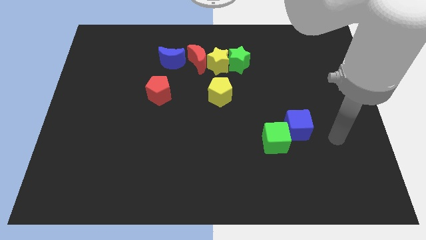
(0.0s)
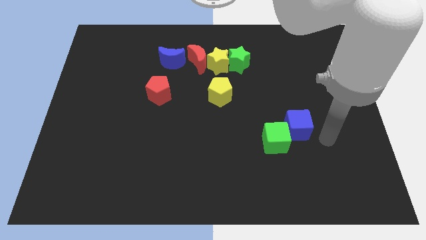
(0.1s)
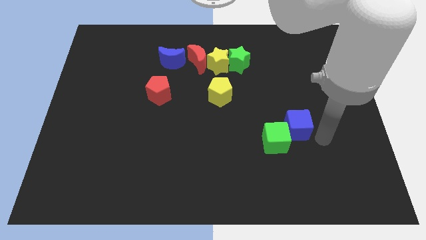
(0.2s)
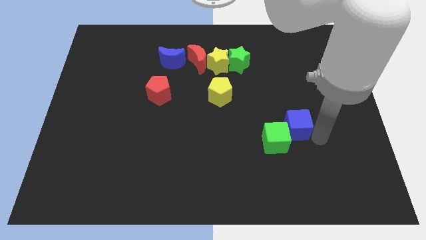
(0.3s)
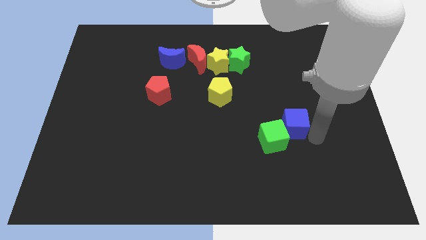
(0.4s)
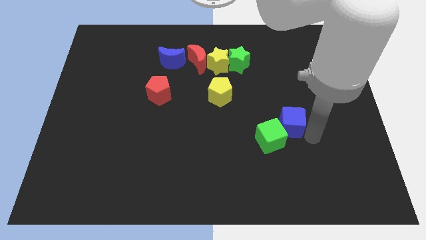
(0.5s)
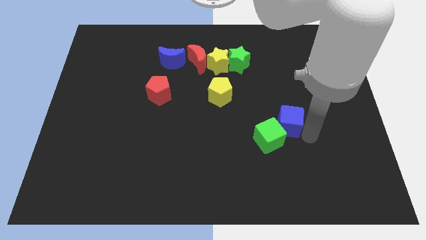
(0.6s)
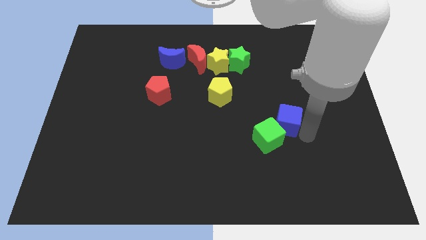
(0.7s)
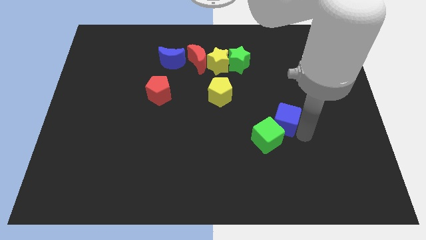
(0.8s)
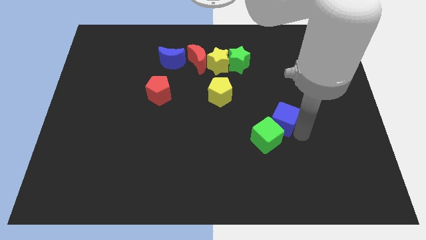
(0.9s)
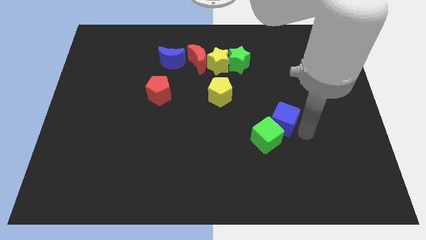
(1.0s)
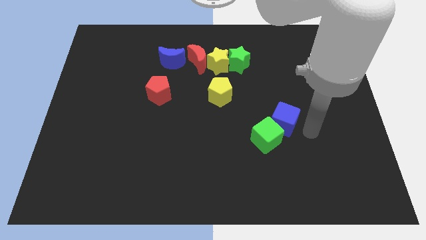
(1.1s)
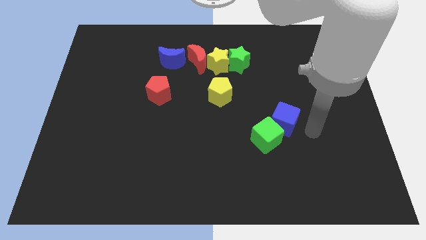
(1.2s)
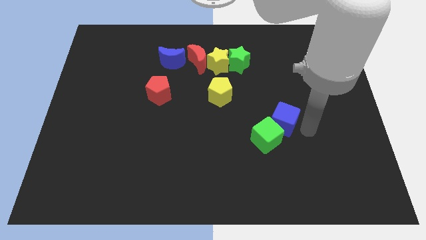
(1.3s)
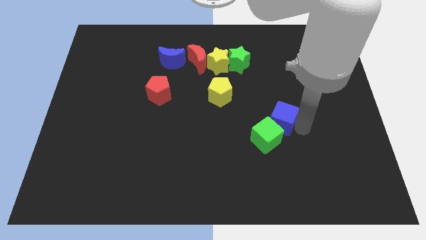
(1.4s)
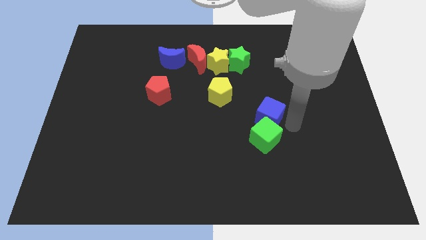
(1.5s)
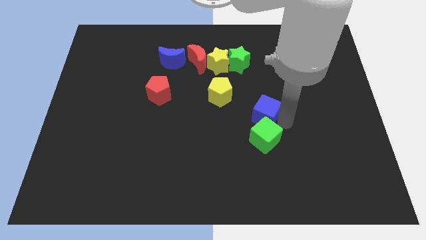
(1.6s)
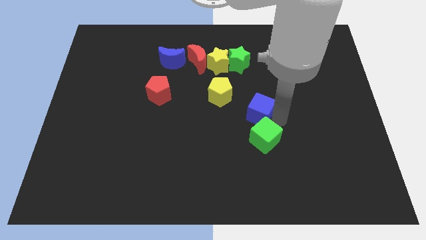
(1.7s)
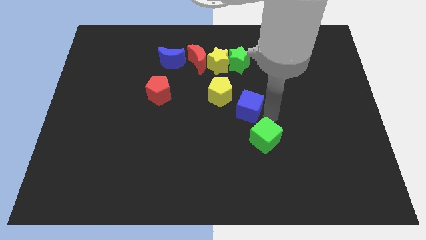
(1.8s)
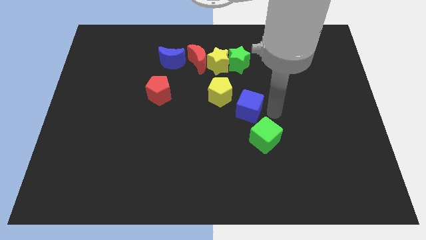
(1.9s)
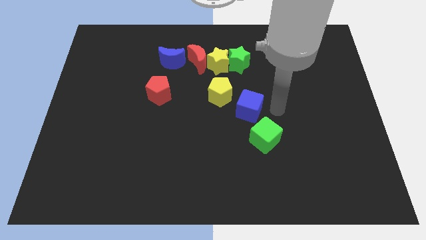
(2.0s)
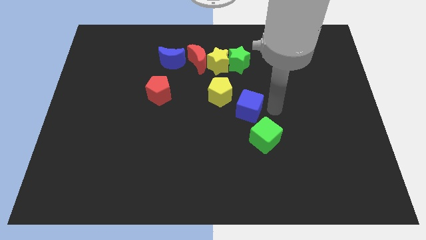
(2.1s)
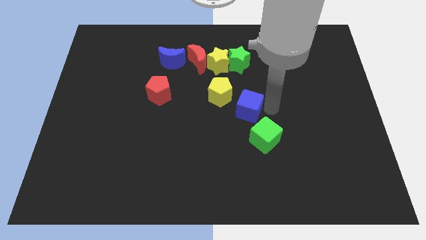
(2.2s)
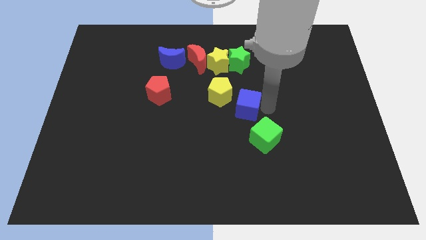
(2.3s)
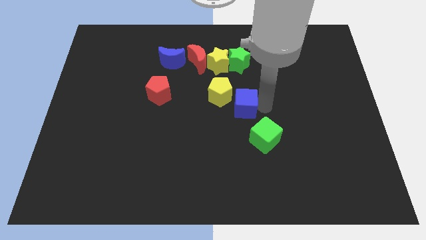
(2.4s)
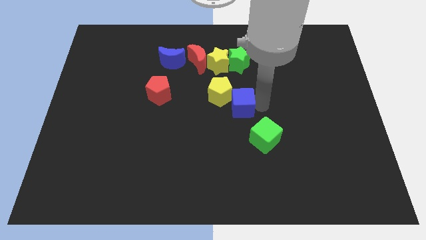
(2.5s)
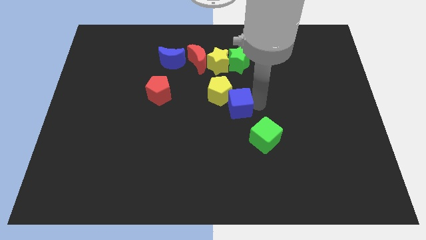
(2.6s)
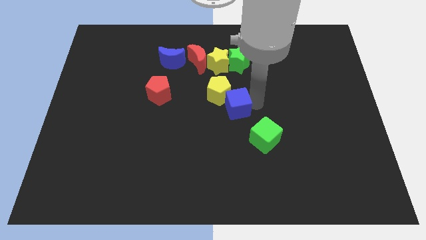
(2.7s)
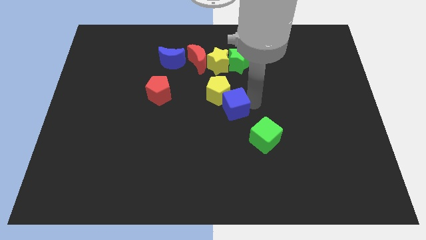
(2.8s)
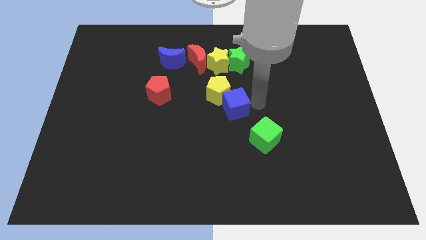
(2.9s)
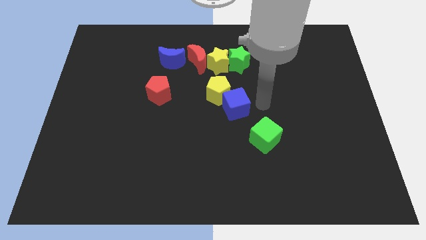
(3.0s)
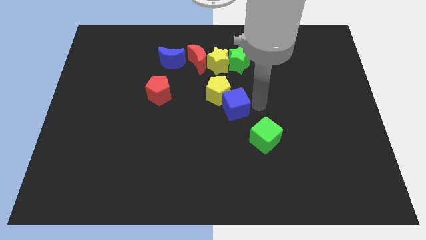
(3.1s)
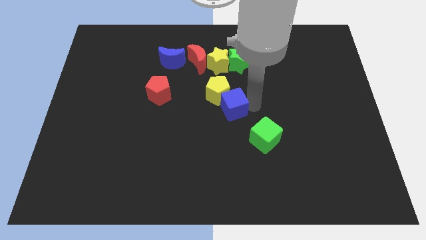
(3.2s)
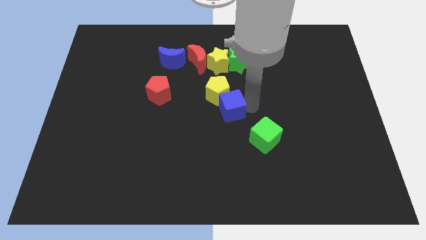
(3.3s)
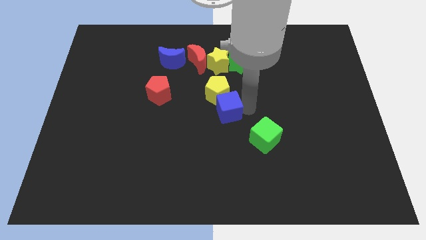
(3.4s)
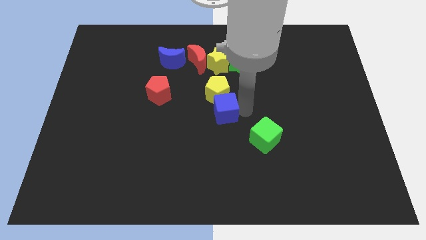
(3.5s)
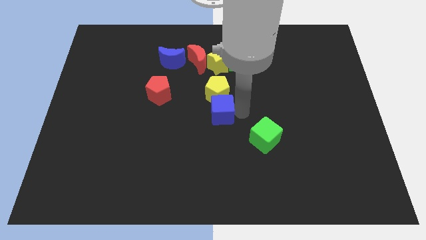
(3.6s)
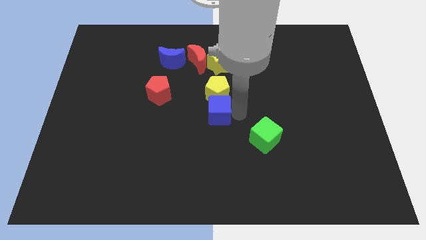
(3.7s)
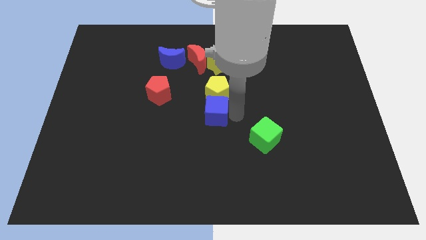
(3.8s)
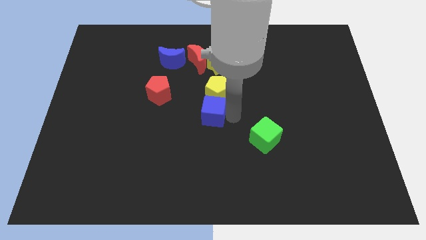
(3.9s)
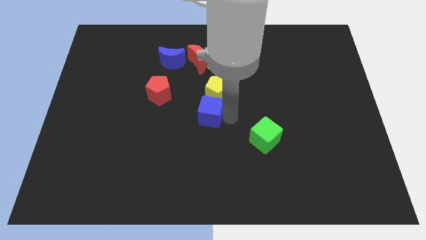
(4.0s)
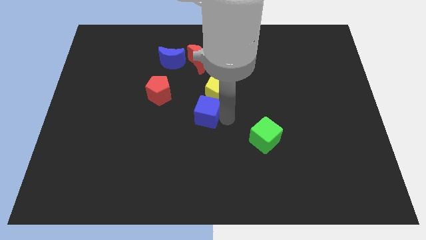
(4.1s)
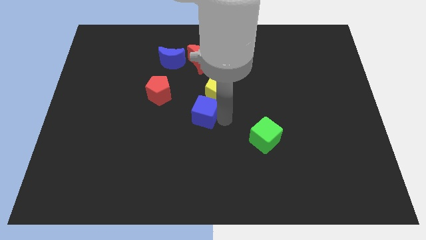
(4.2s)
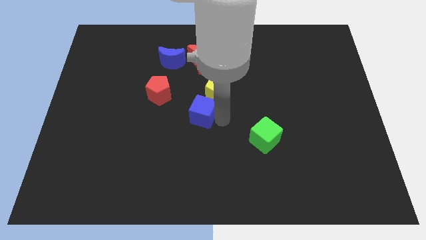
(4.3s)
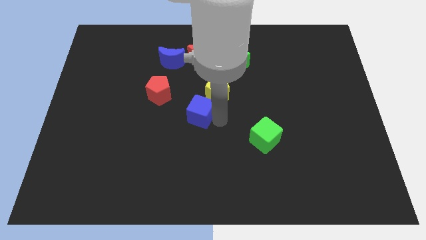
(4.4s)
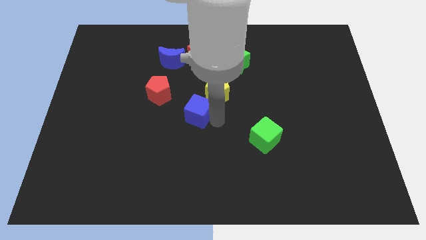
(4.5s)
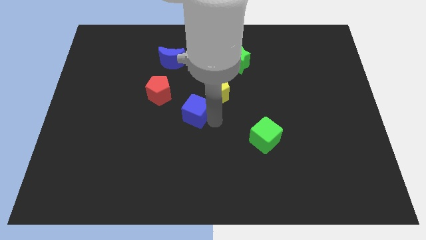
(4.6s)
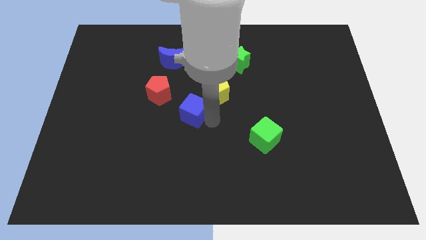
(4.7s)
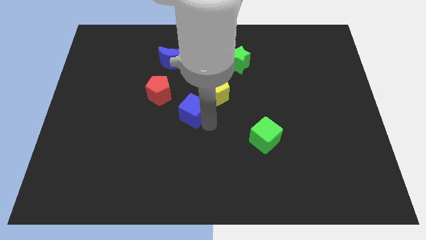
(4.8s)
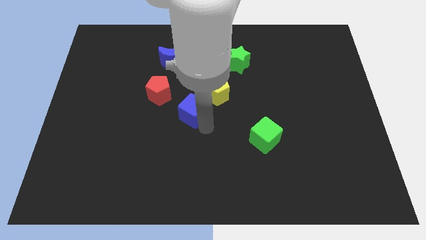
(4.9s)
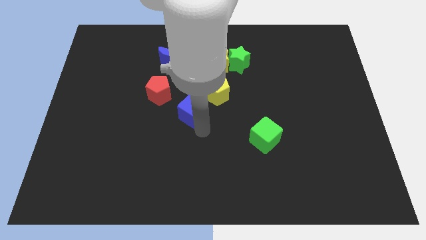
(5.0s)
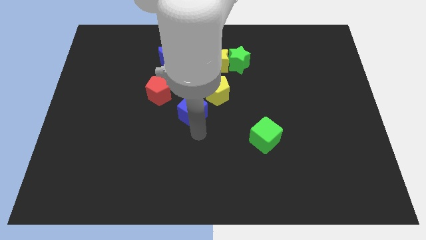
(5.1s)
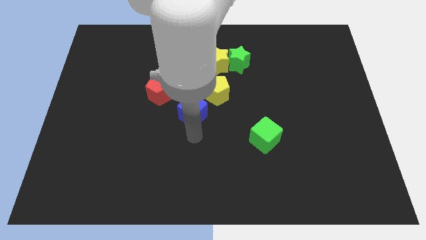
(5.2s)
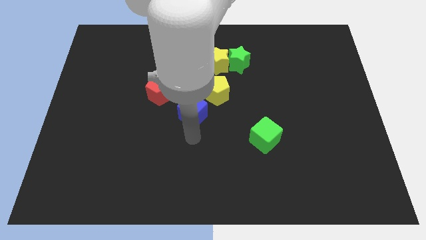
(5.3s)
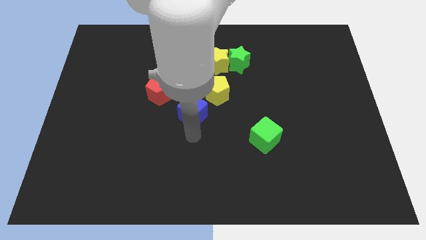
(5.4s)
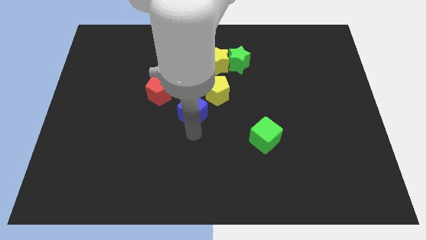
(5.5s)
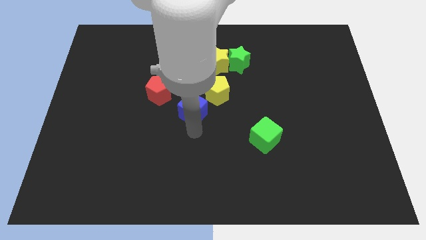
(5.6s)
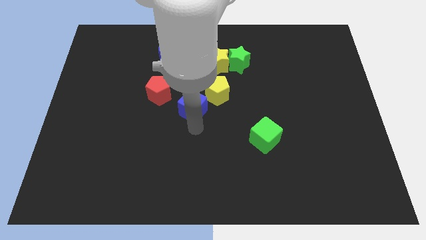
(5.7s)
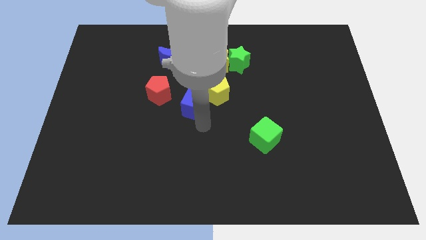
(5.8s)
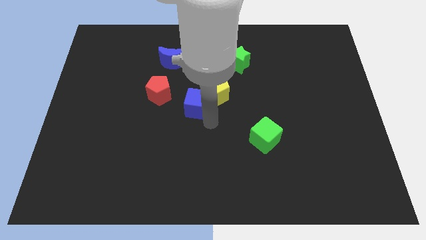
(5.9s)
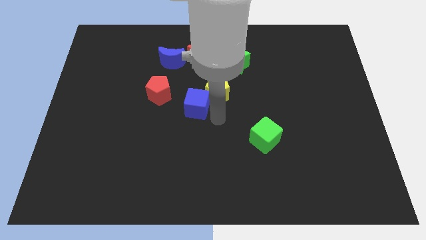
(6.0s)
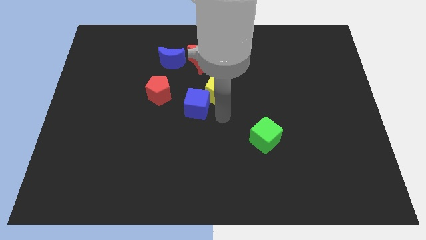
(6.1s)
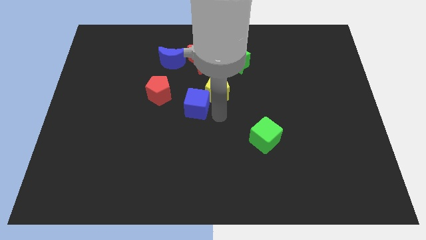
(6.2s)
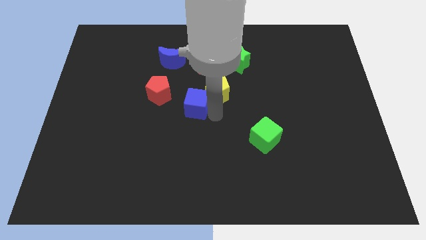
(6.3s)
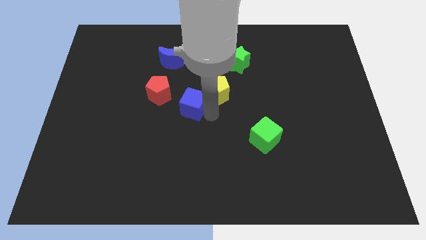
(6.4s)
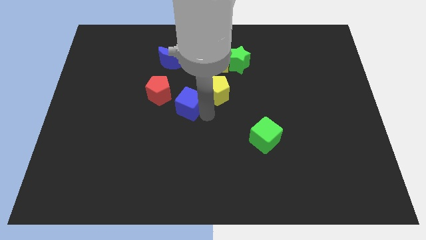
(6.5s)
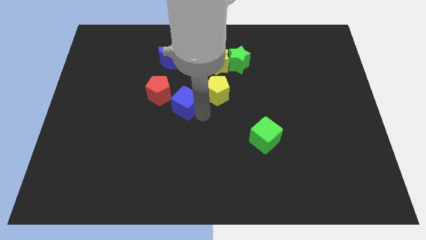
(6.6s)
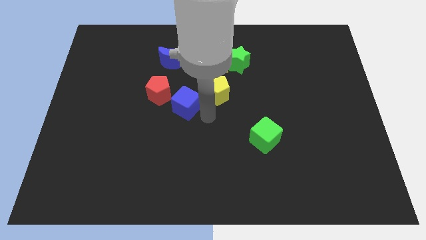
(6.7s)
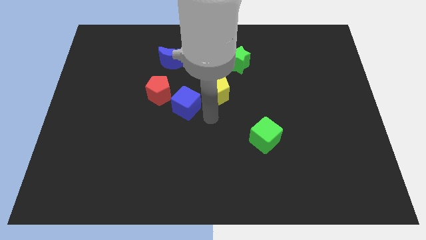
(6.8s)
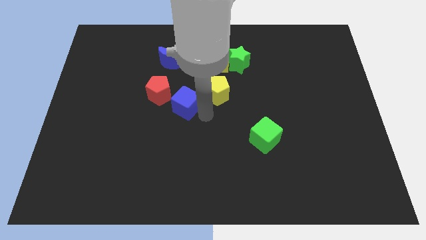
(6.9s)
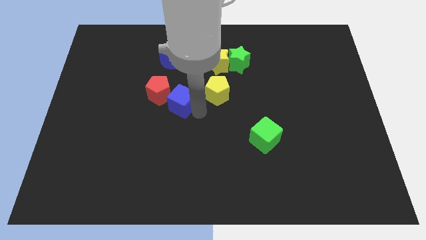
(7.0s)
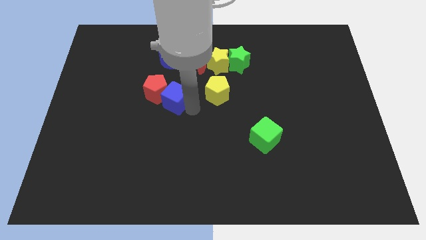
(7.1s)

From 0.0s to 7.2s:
push the blue cube next to the red pentagon
